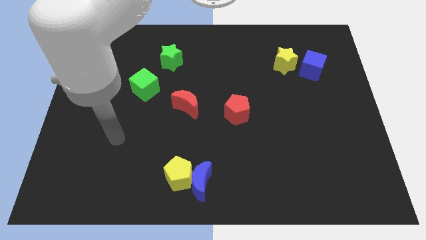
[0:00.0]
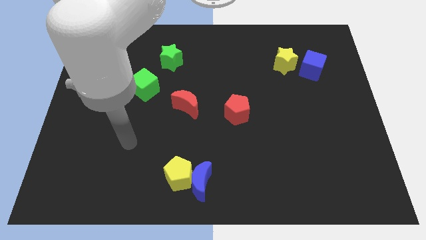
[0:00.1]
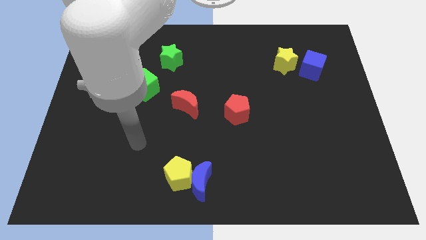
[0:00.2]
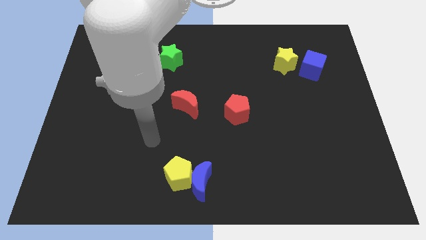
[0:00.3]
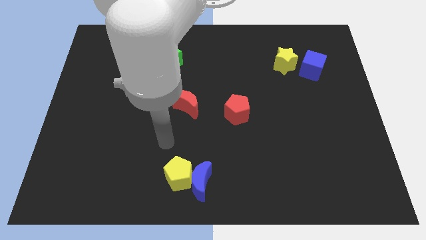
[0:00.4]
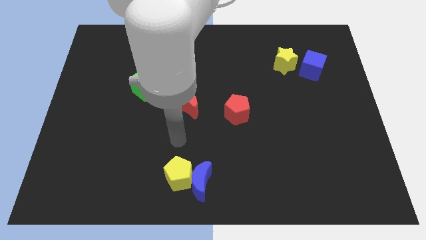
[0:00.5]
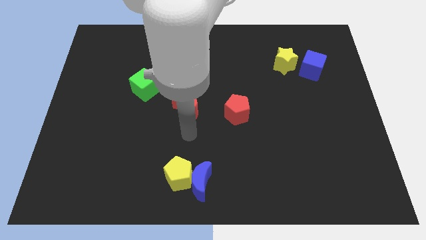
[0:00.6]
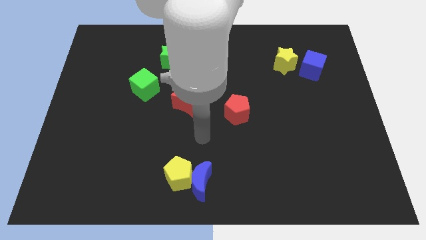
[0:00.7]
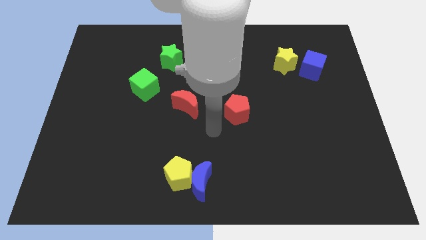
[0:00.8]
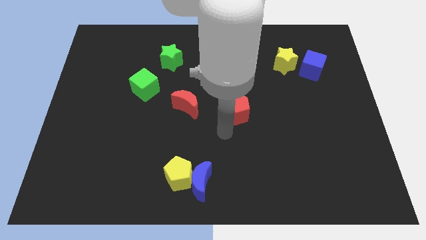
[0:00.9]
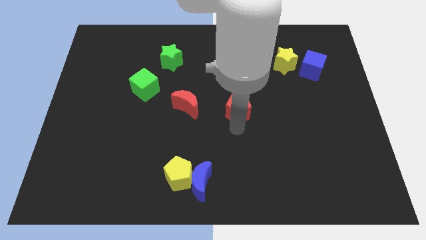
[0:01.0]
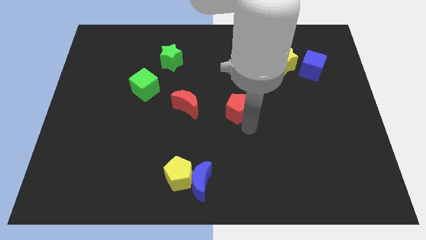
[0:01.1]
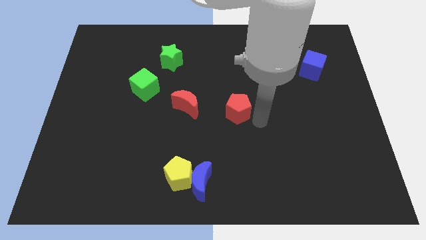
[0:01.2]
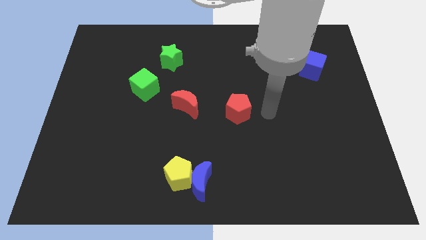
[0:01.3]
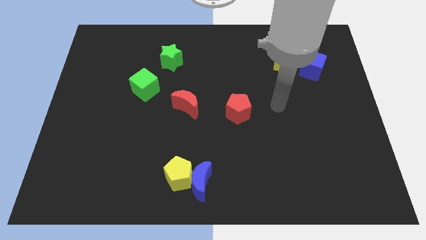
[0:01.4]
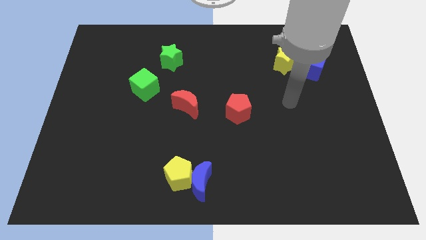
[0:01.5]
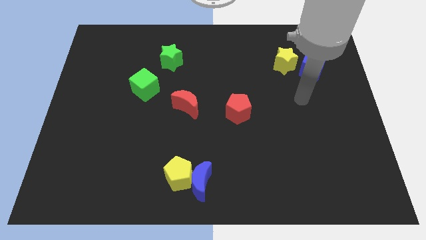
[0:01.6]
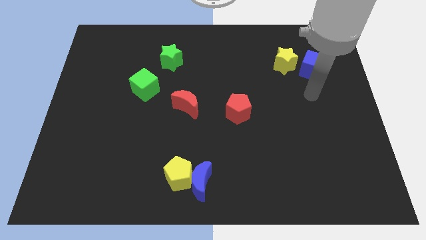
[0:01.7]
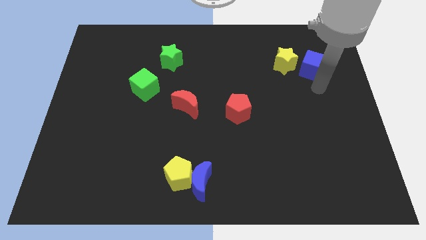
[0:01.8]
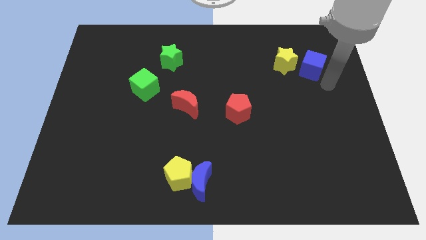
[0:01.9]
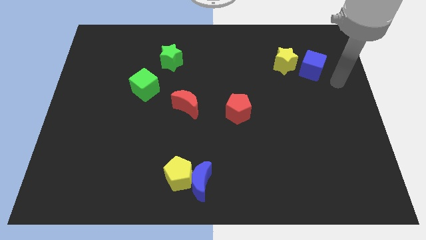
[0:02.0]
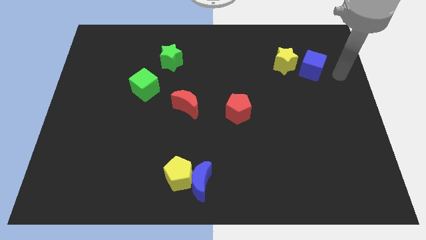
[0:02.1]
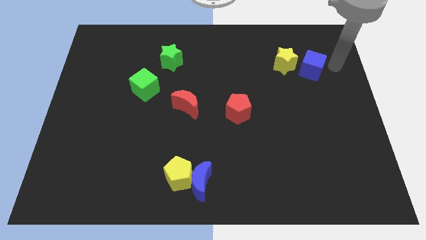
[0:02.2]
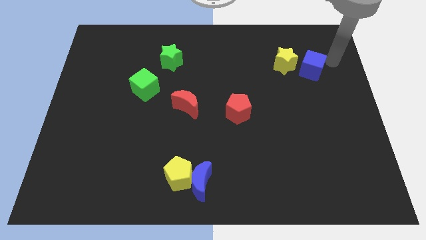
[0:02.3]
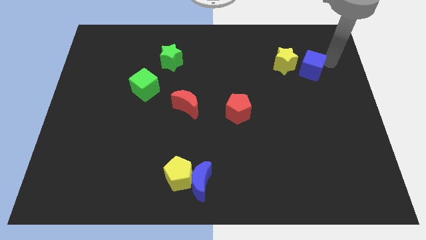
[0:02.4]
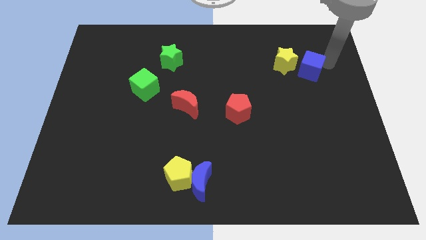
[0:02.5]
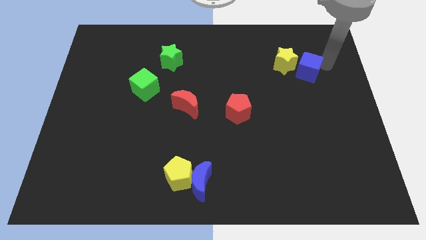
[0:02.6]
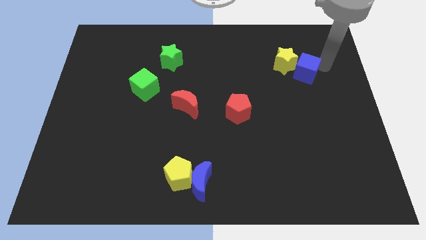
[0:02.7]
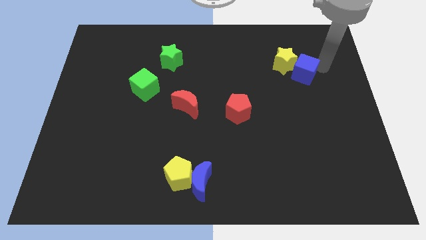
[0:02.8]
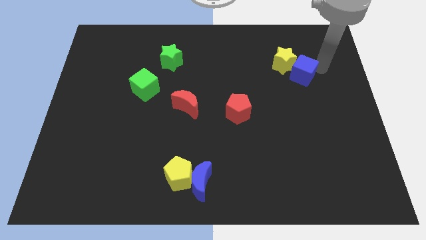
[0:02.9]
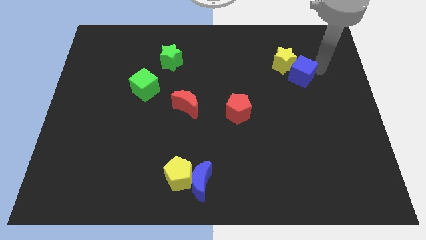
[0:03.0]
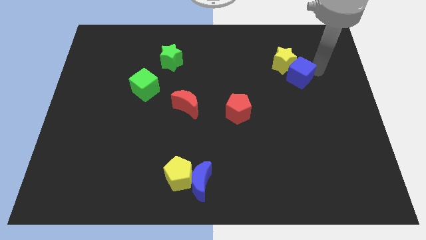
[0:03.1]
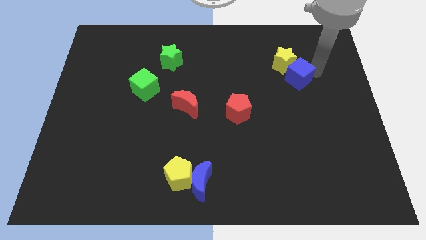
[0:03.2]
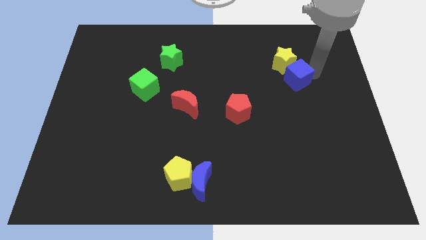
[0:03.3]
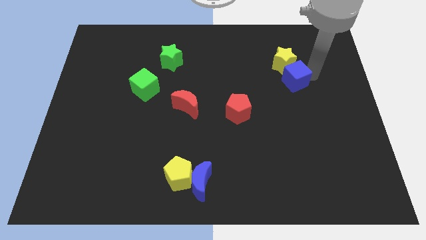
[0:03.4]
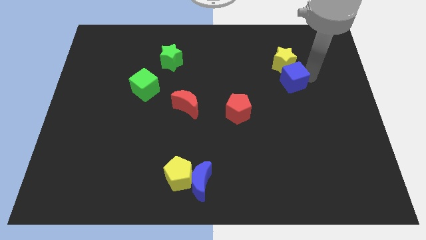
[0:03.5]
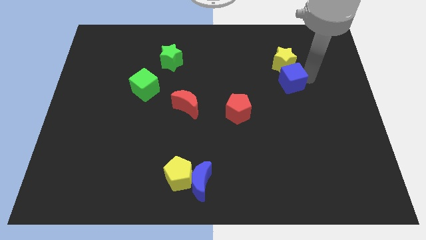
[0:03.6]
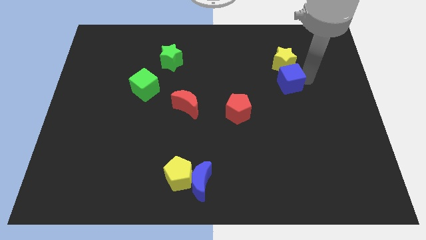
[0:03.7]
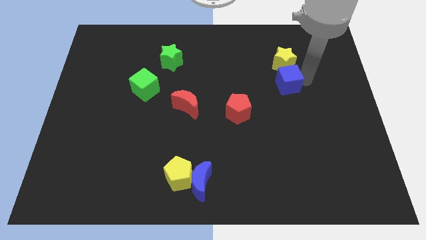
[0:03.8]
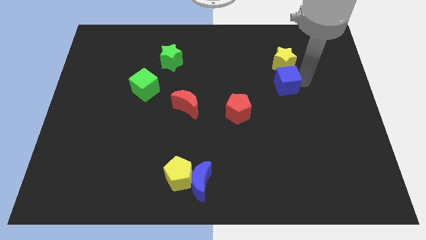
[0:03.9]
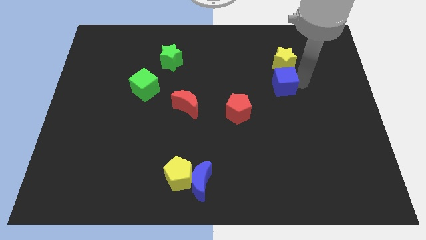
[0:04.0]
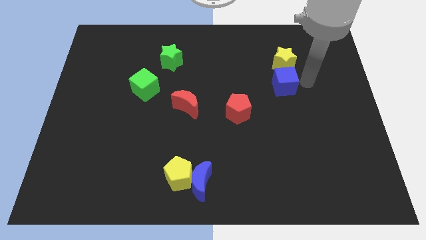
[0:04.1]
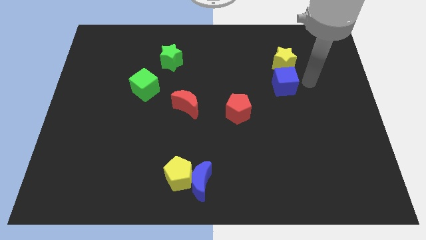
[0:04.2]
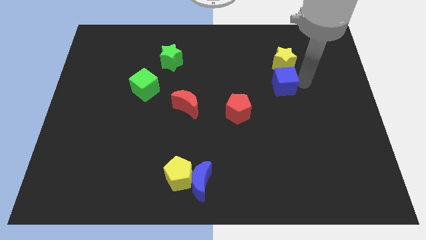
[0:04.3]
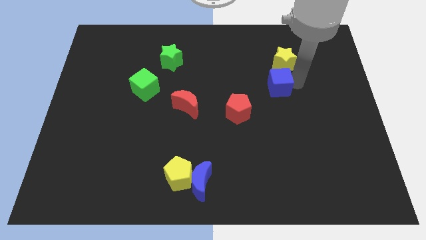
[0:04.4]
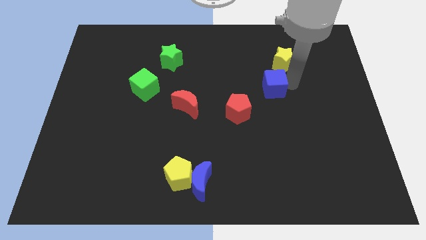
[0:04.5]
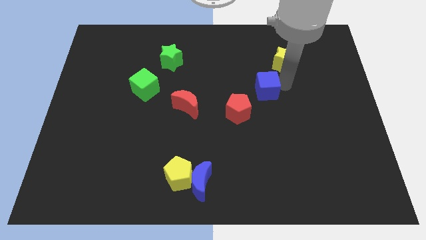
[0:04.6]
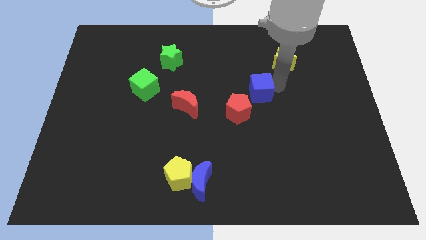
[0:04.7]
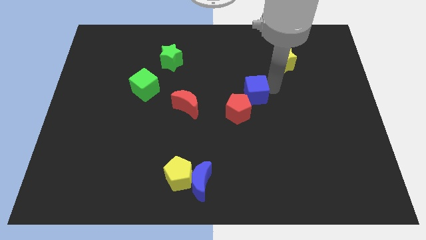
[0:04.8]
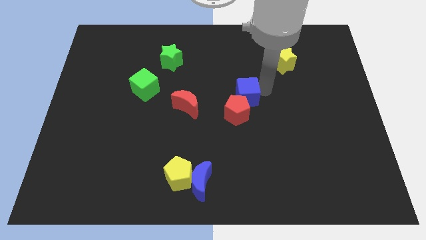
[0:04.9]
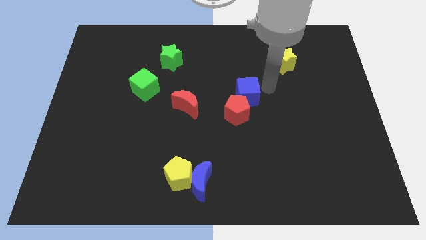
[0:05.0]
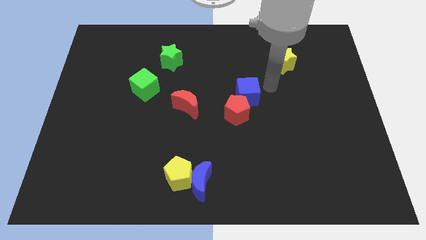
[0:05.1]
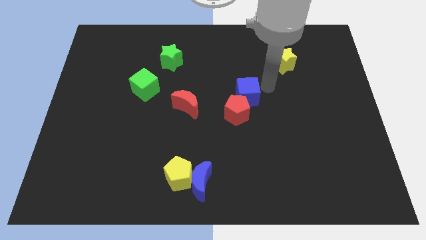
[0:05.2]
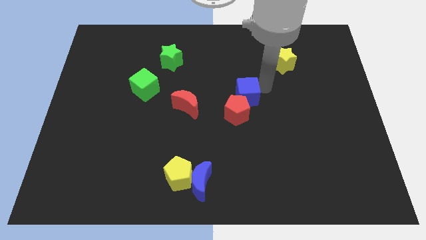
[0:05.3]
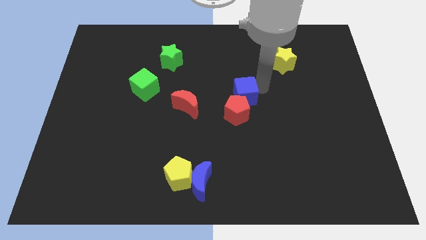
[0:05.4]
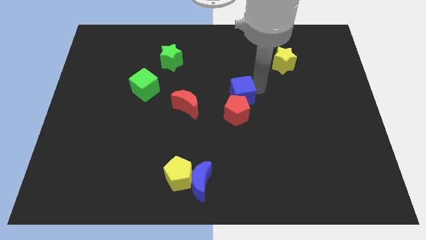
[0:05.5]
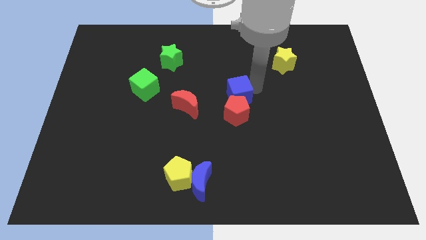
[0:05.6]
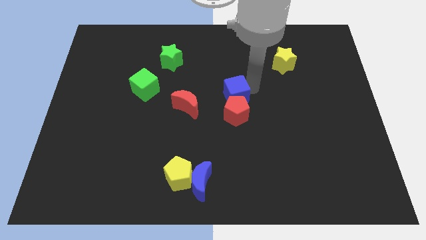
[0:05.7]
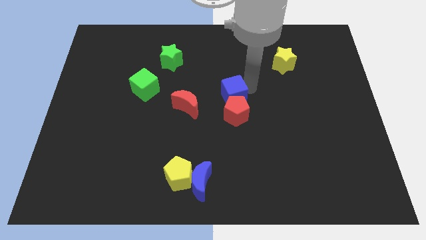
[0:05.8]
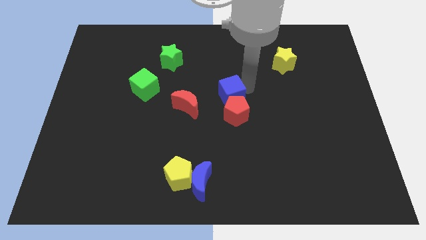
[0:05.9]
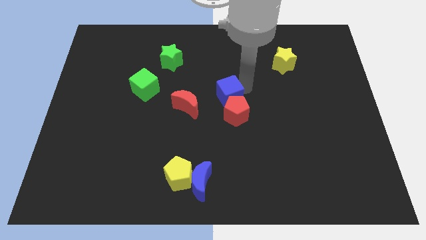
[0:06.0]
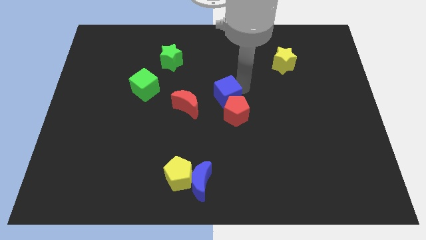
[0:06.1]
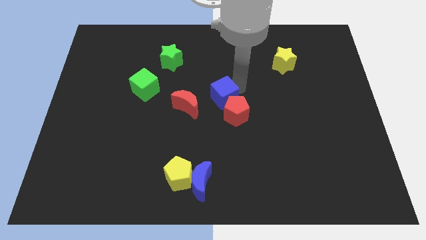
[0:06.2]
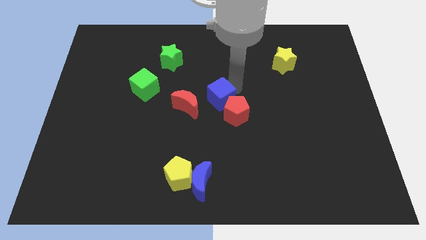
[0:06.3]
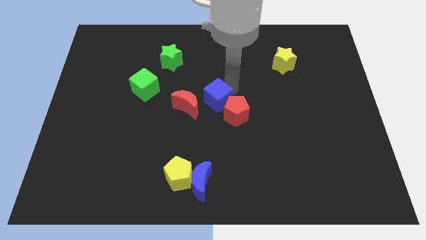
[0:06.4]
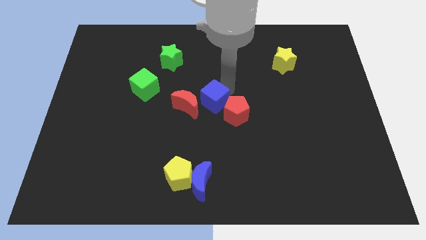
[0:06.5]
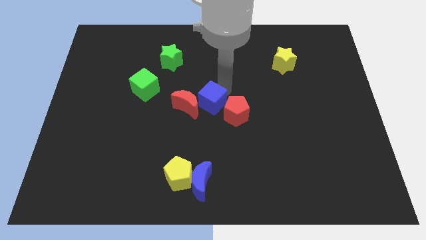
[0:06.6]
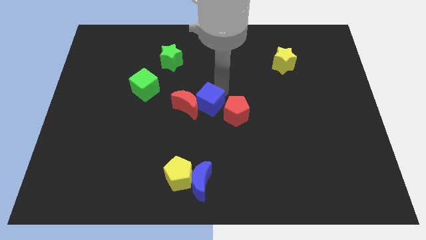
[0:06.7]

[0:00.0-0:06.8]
push the blue cube diagonally down and to the right of the red moon

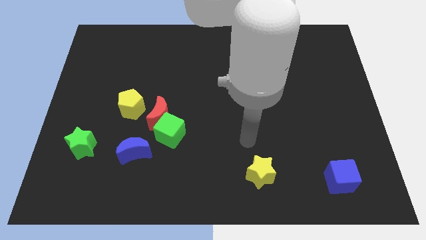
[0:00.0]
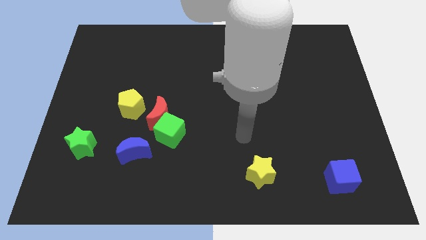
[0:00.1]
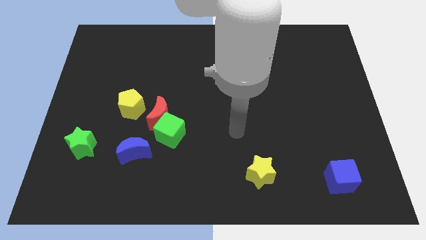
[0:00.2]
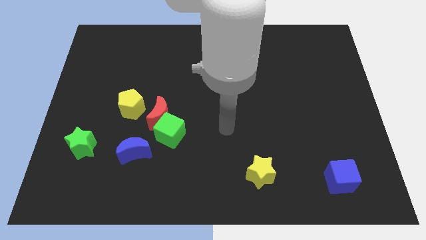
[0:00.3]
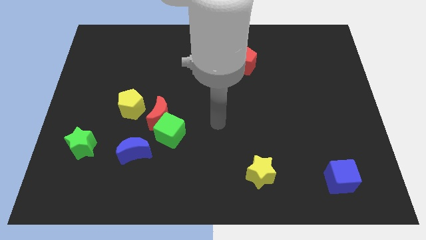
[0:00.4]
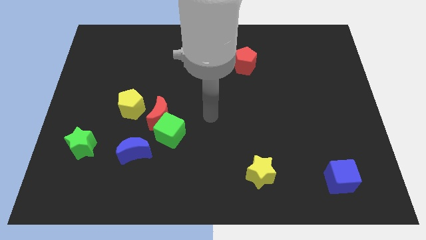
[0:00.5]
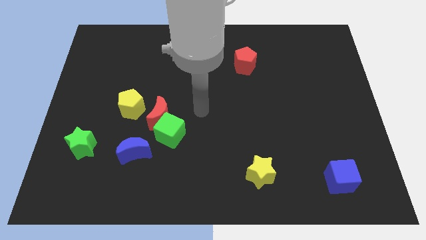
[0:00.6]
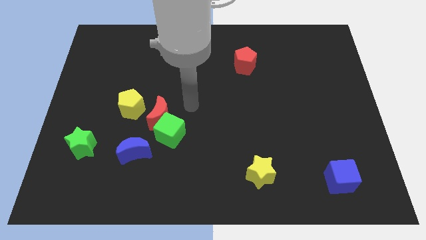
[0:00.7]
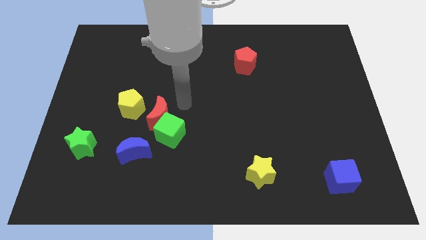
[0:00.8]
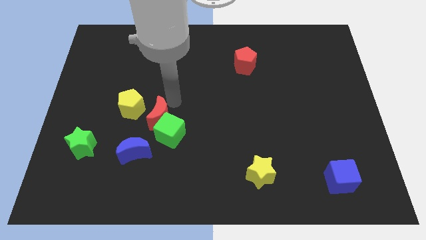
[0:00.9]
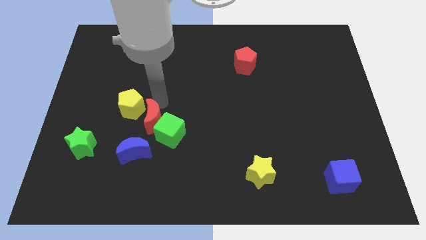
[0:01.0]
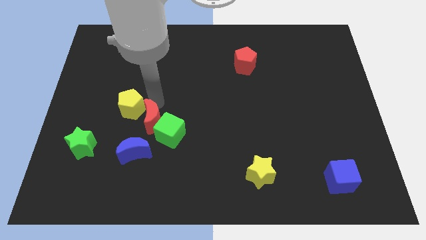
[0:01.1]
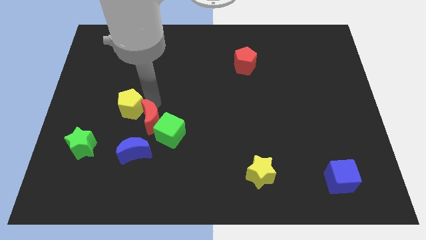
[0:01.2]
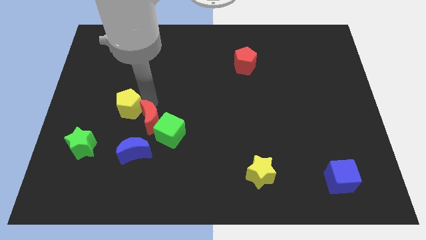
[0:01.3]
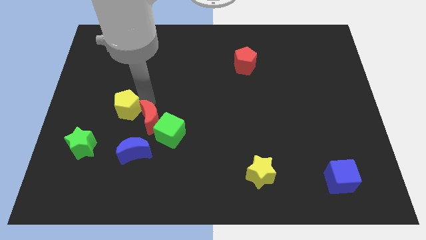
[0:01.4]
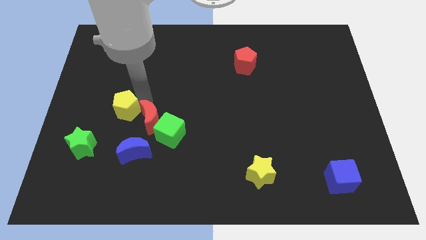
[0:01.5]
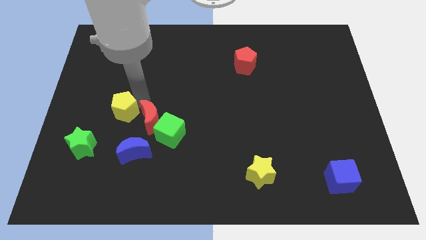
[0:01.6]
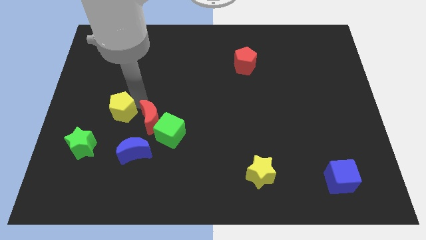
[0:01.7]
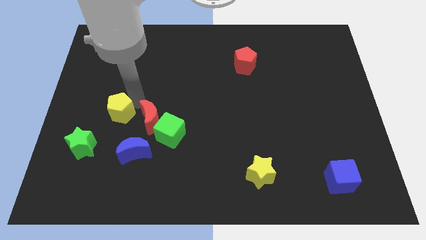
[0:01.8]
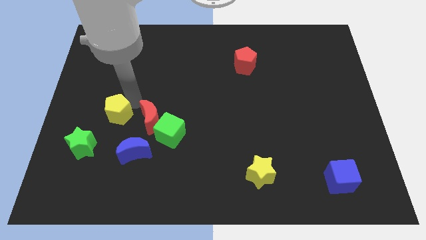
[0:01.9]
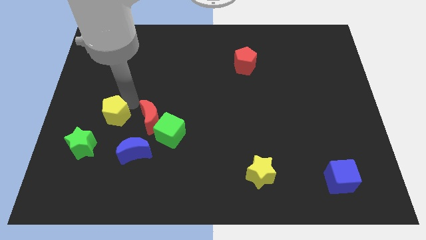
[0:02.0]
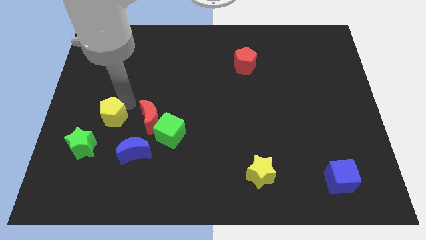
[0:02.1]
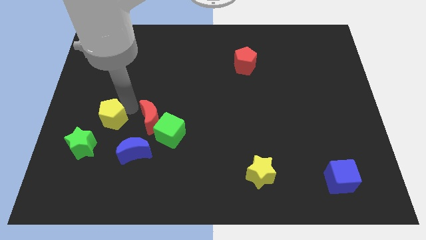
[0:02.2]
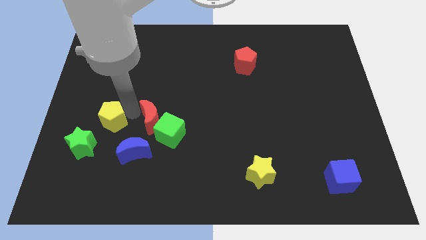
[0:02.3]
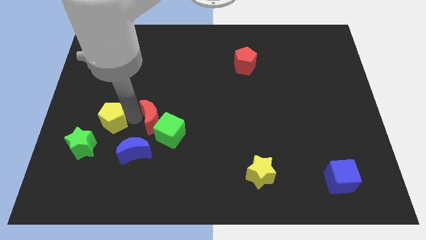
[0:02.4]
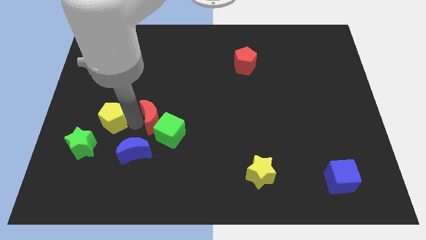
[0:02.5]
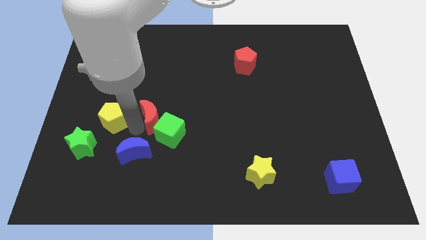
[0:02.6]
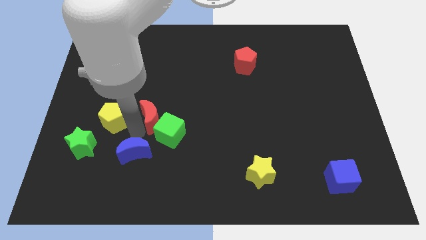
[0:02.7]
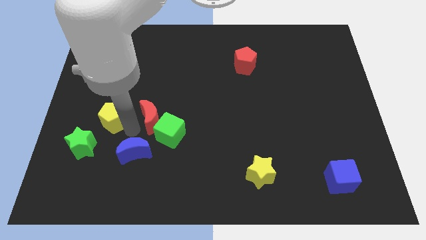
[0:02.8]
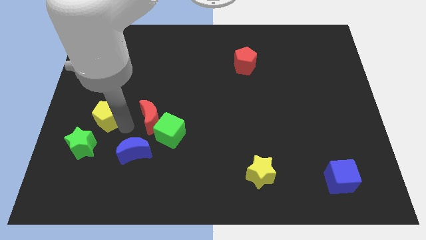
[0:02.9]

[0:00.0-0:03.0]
push the yellow pentagon above the green star
